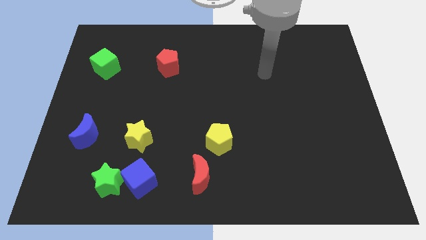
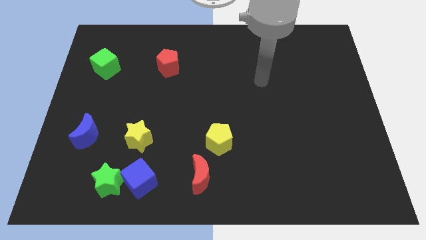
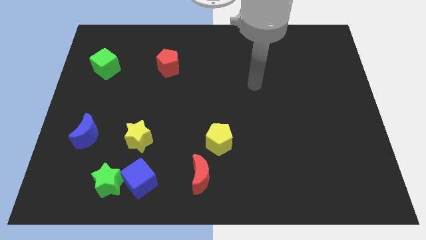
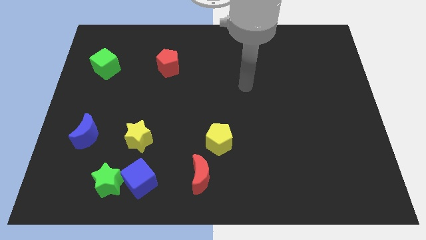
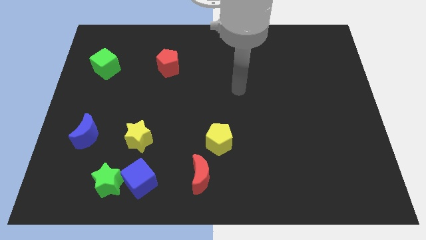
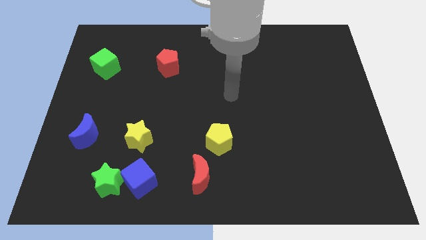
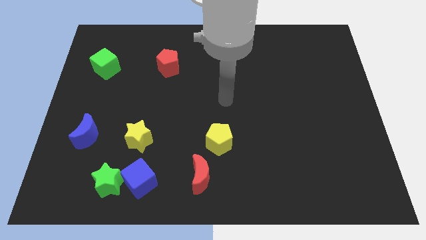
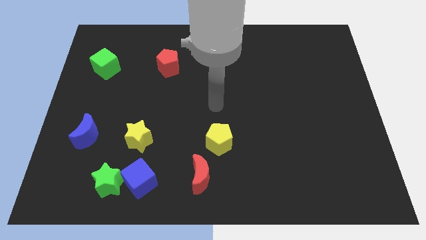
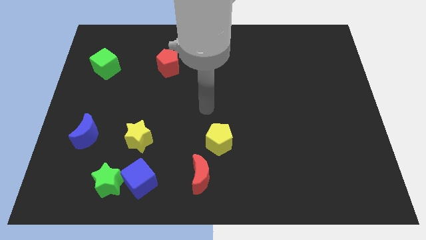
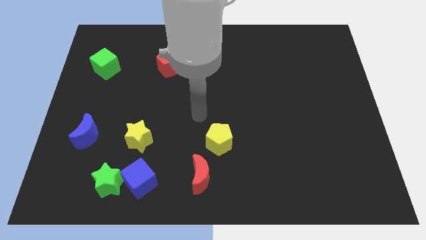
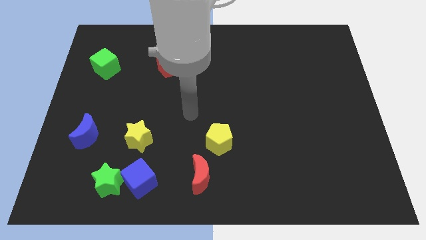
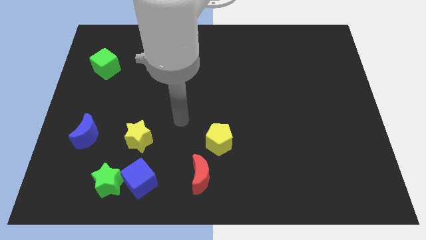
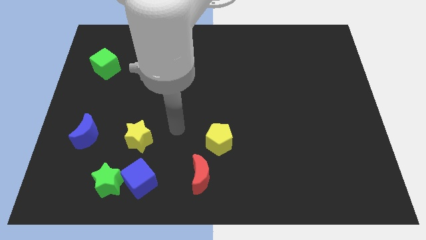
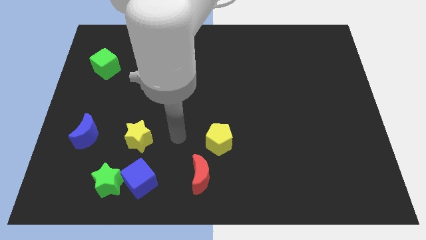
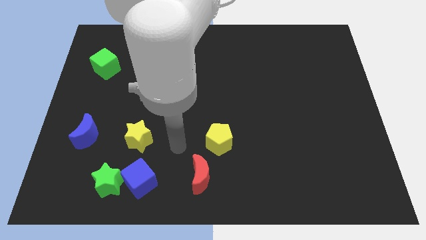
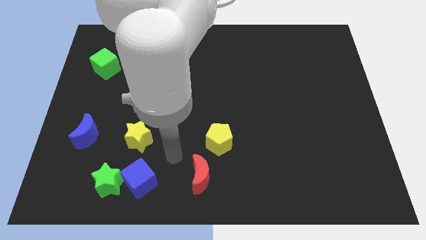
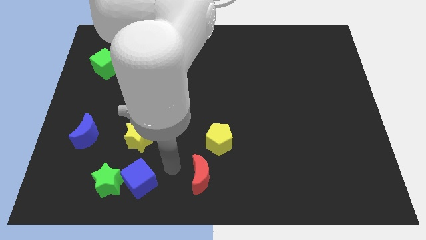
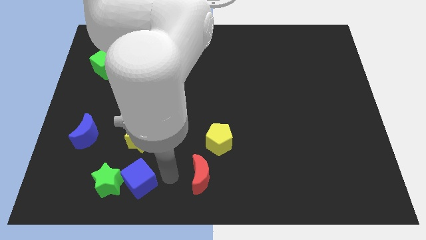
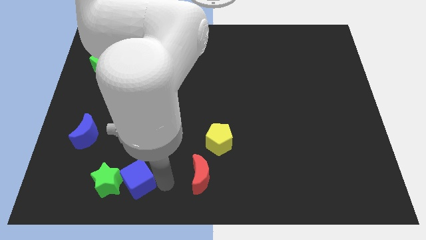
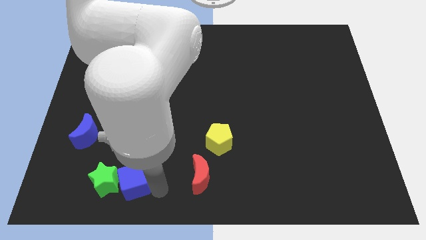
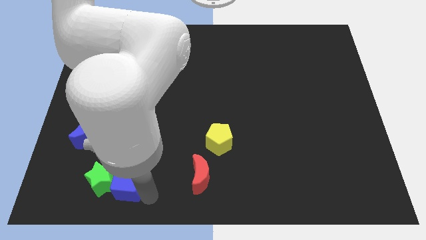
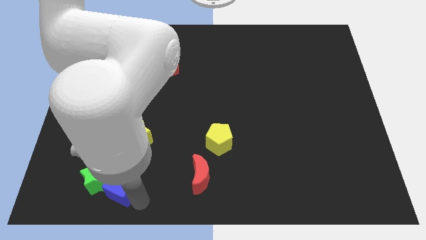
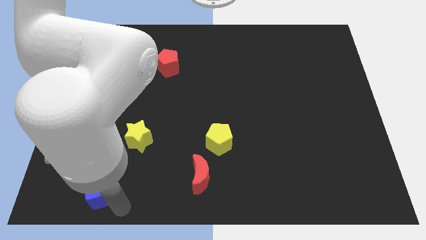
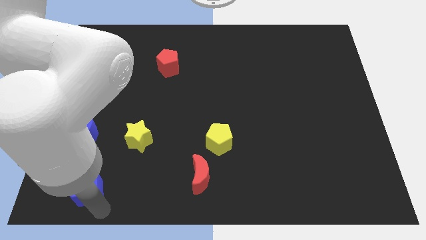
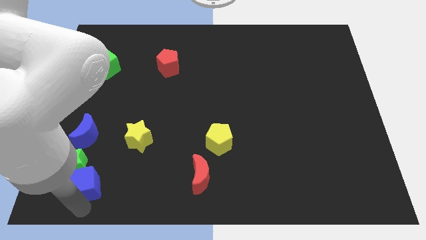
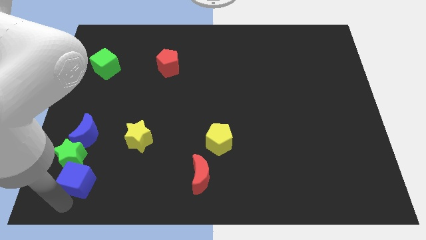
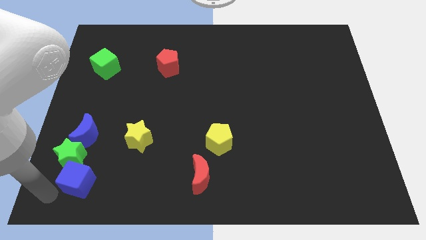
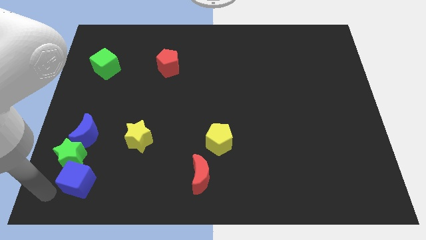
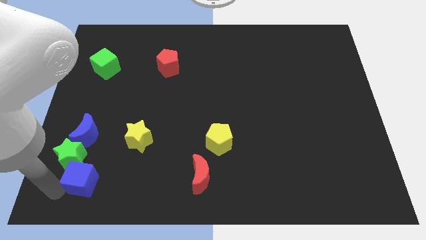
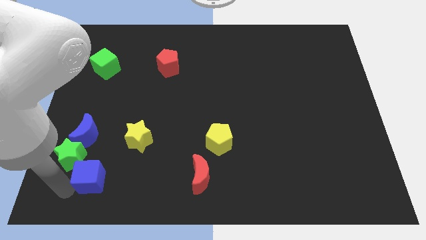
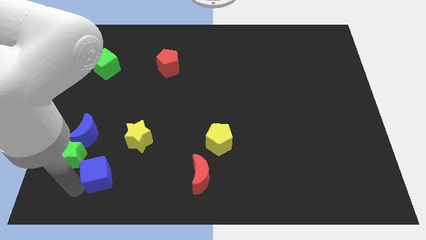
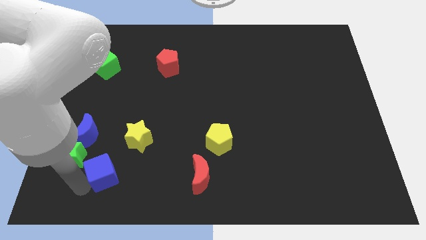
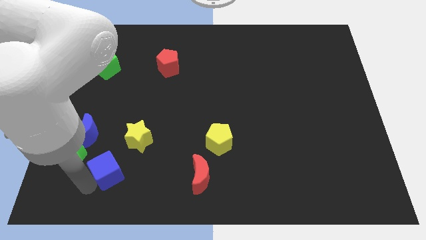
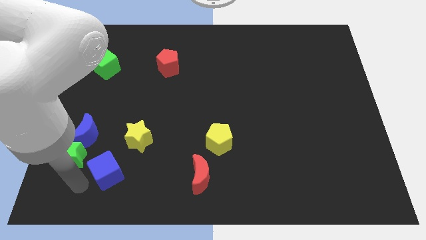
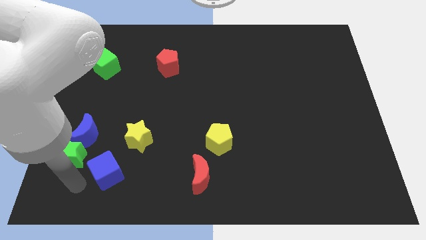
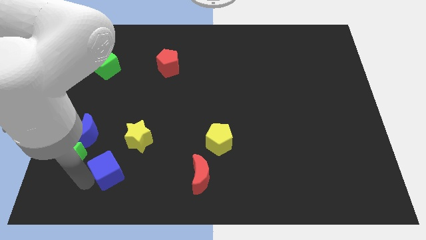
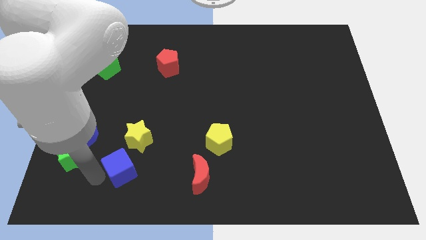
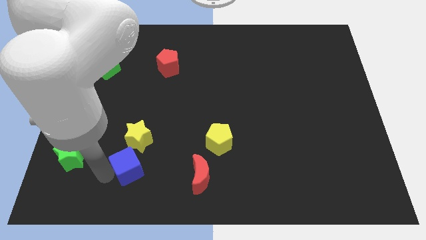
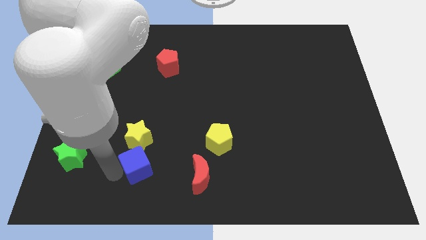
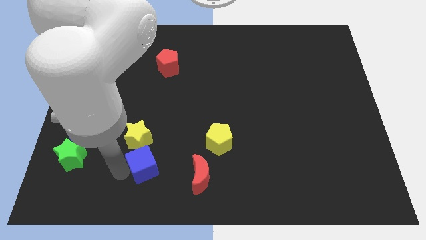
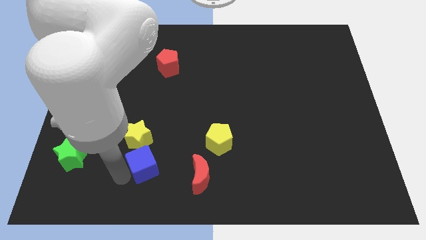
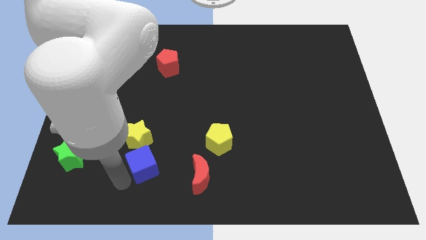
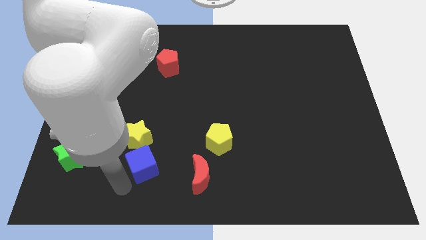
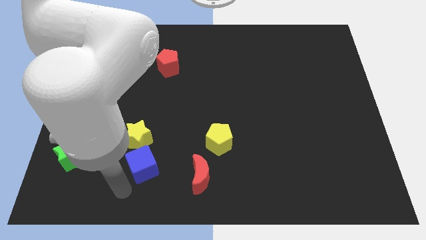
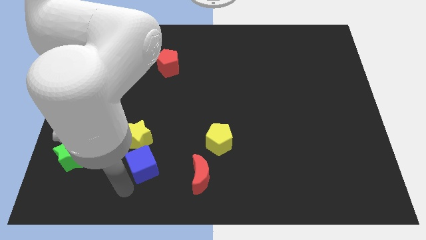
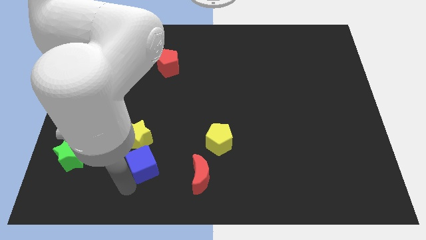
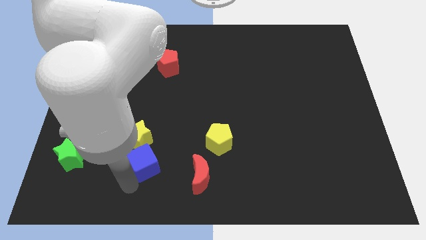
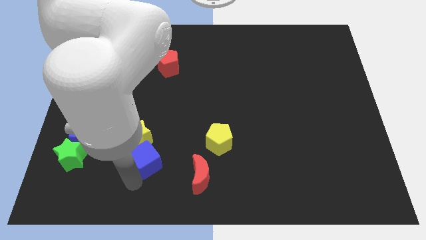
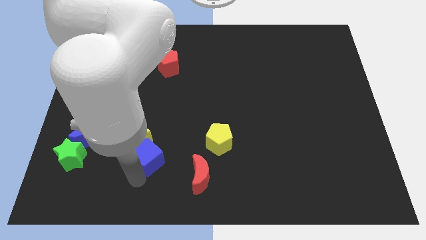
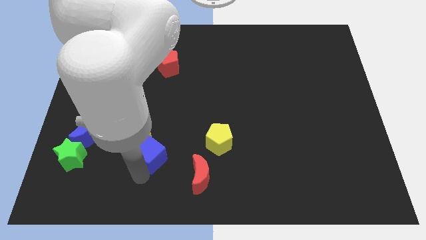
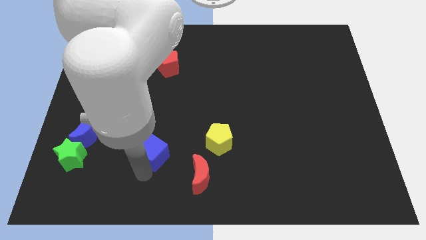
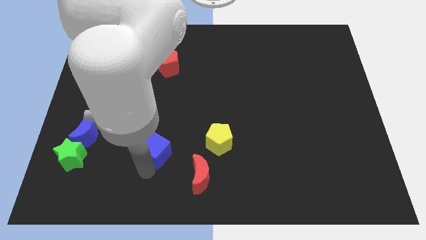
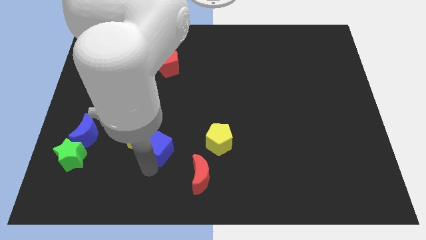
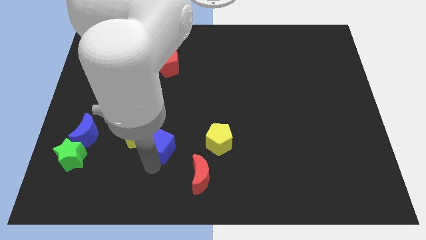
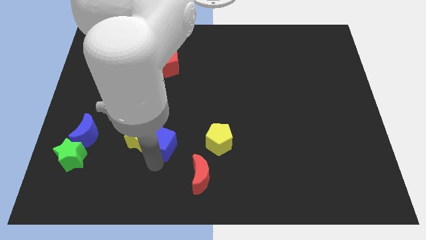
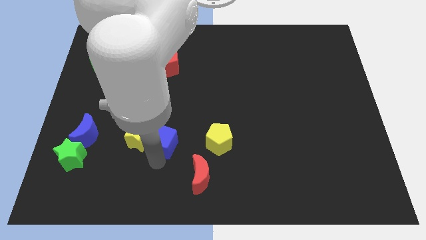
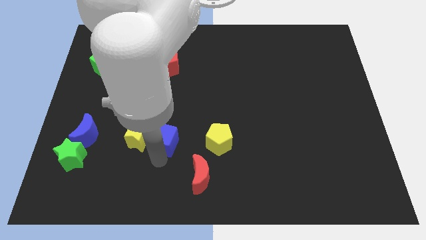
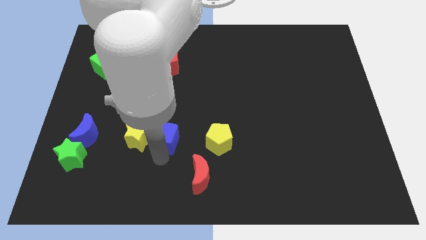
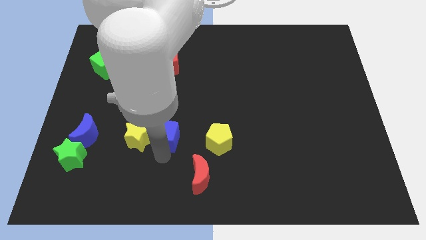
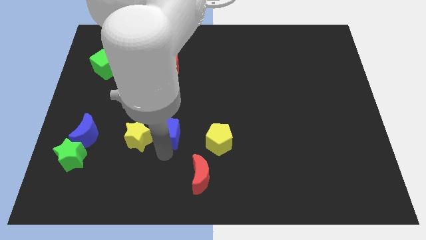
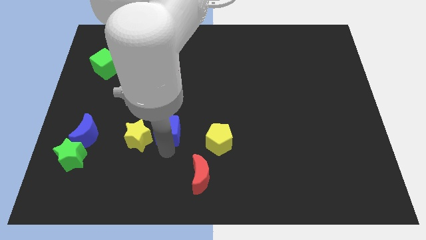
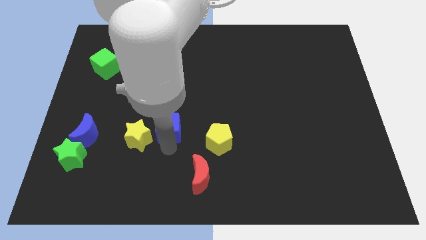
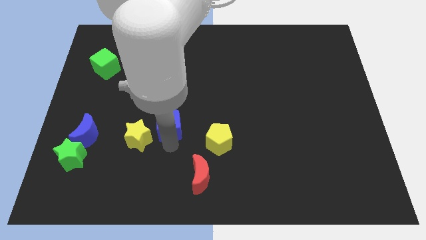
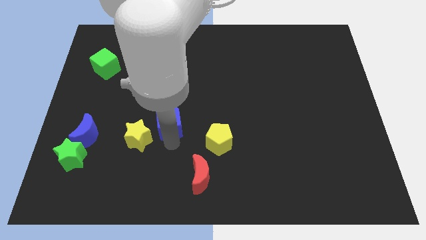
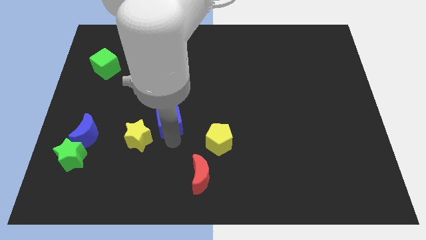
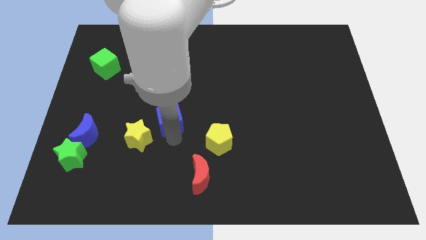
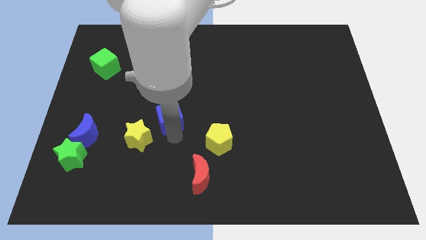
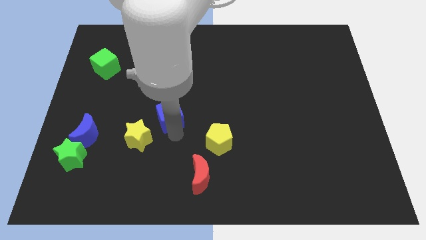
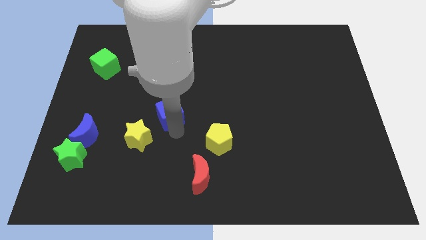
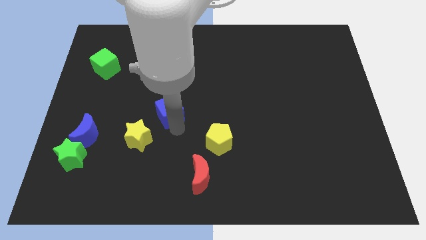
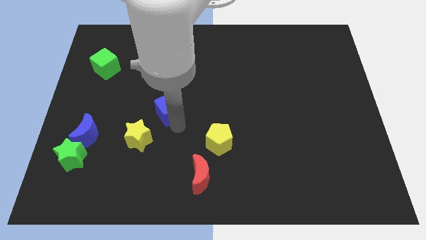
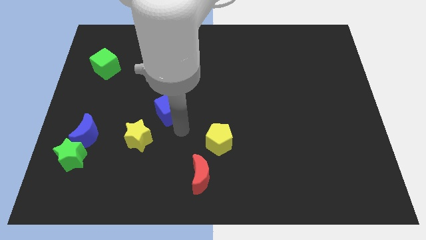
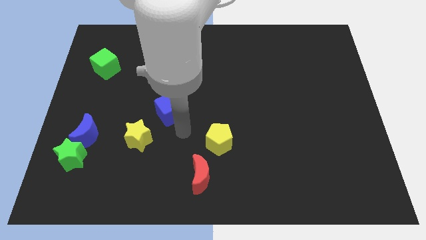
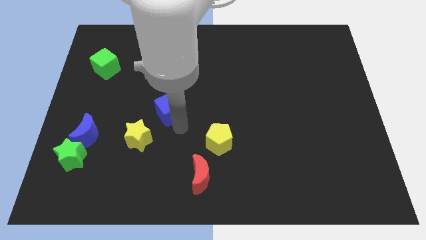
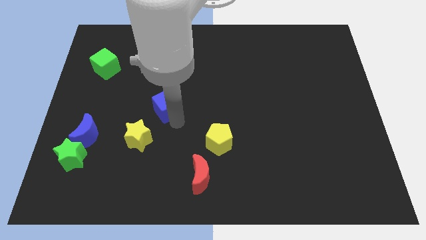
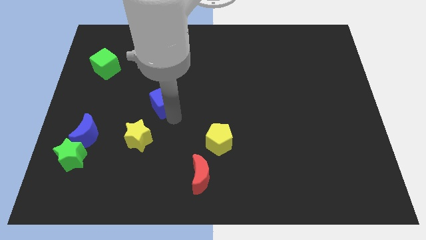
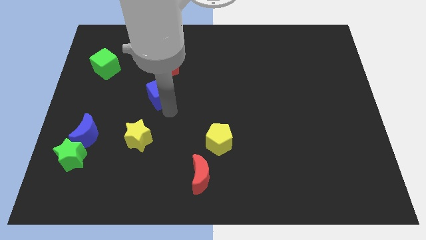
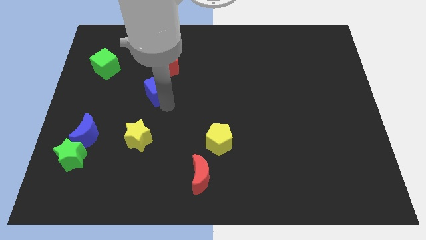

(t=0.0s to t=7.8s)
move the blue cube to the bottom left side of the red pentagon
